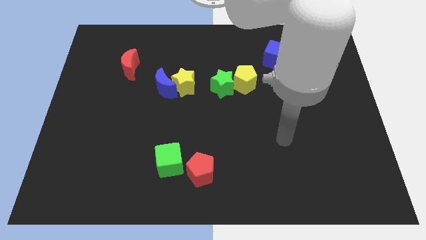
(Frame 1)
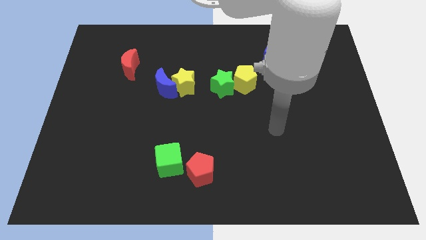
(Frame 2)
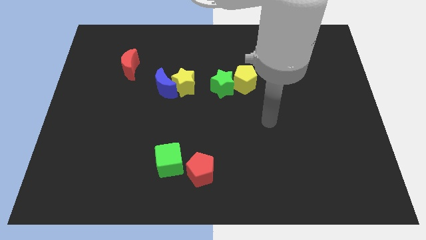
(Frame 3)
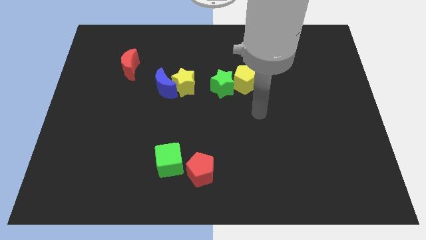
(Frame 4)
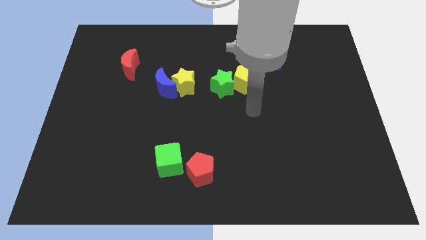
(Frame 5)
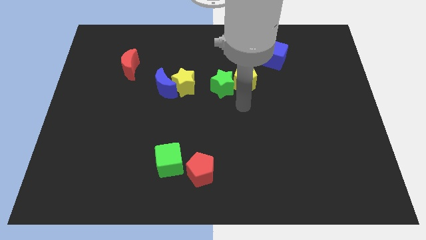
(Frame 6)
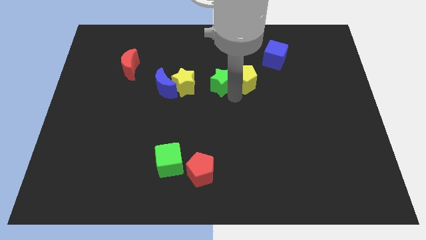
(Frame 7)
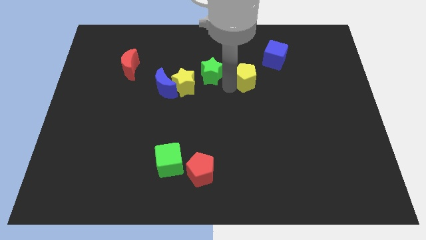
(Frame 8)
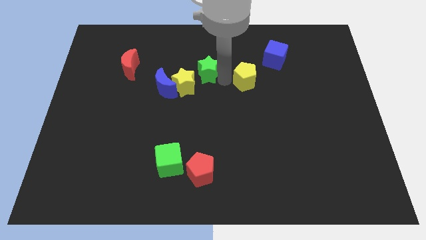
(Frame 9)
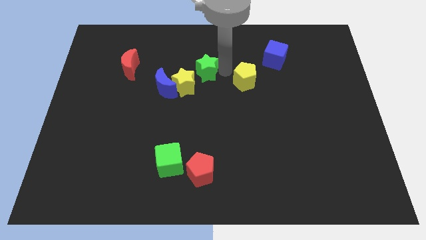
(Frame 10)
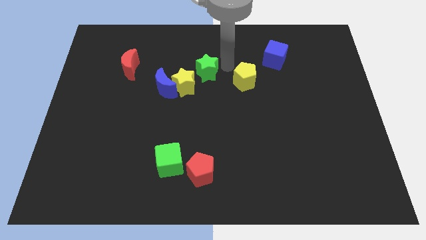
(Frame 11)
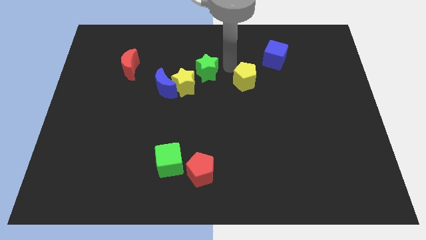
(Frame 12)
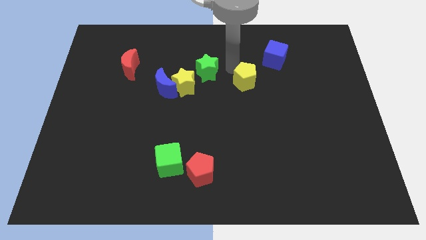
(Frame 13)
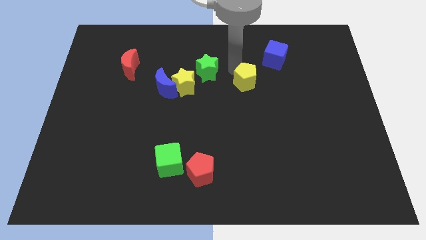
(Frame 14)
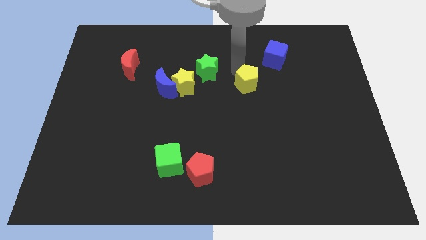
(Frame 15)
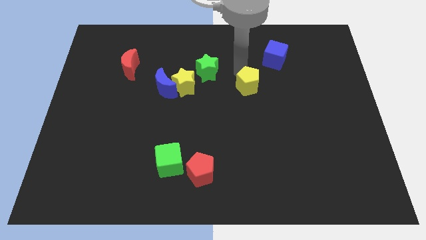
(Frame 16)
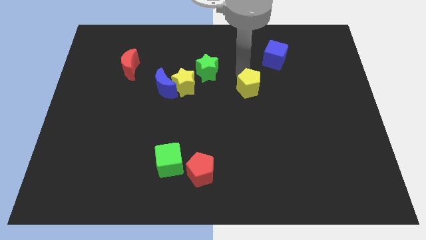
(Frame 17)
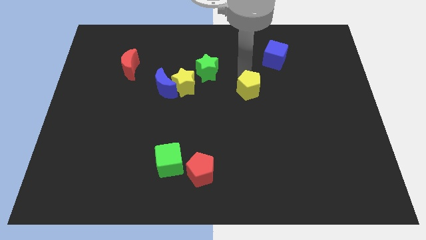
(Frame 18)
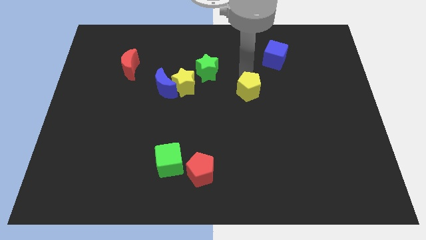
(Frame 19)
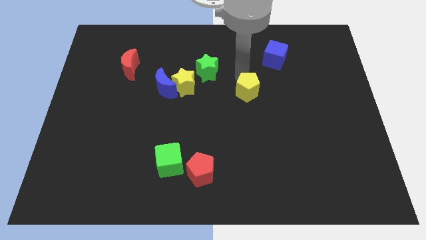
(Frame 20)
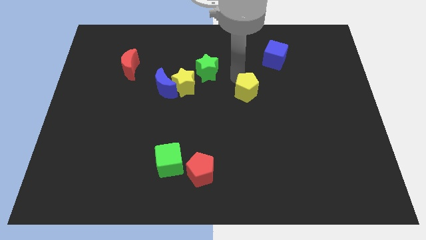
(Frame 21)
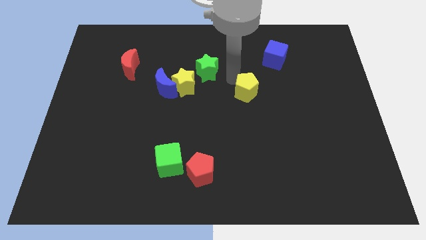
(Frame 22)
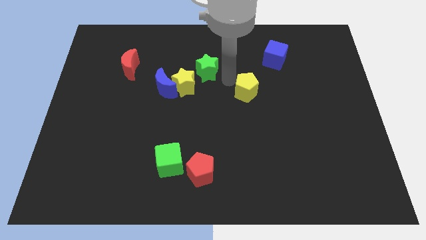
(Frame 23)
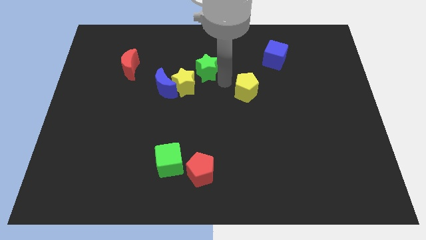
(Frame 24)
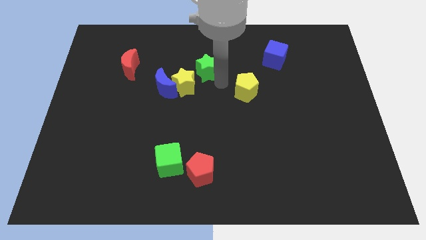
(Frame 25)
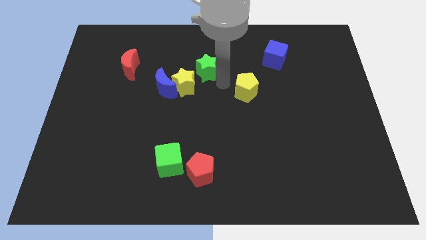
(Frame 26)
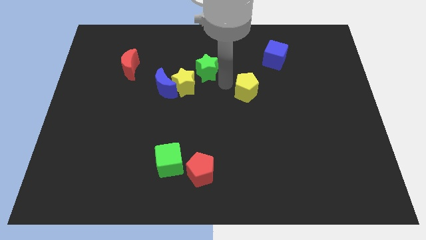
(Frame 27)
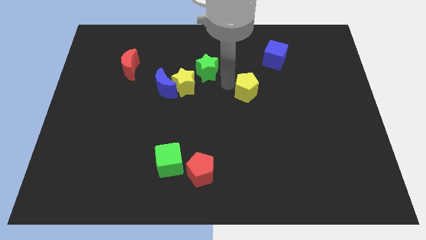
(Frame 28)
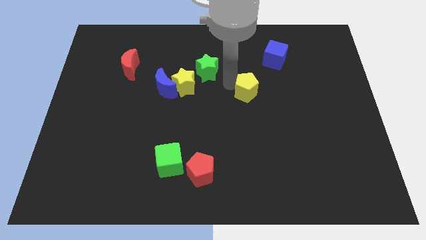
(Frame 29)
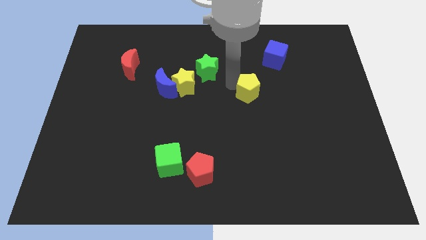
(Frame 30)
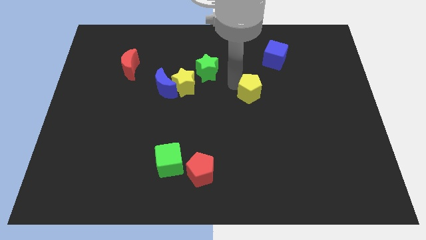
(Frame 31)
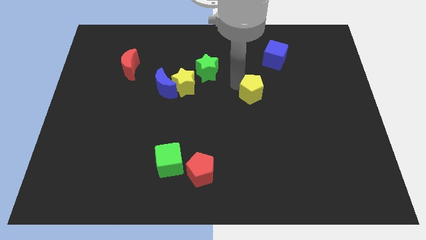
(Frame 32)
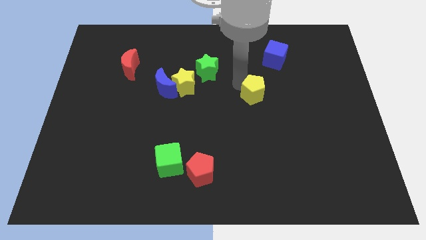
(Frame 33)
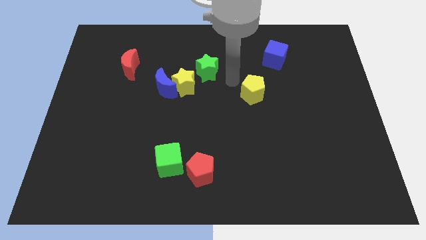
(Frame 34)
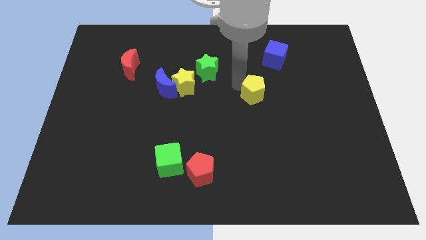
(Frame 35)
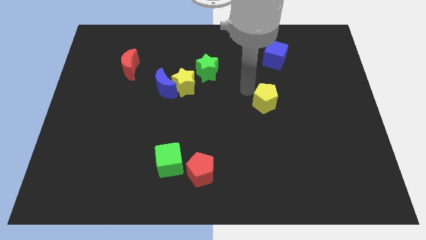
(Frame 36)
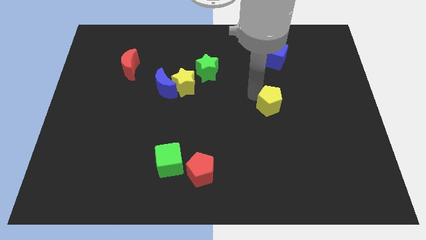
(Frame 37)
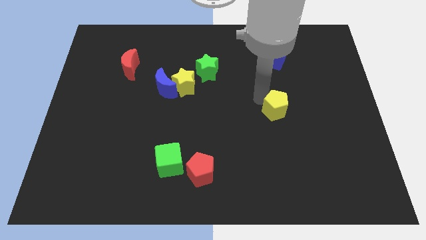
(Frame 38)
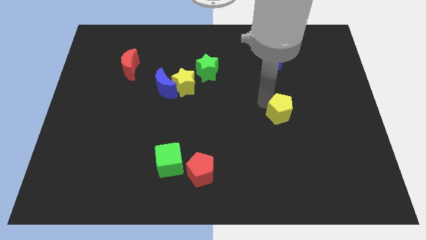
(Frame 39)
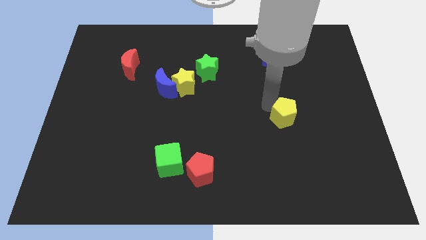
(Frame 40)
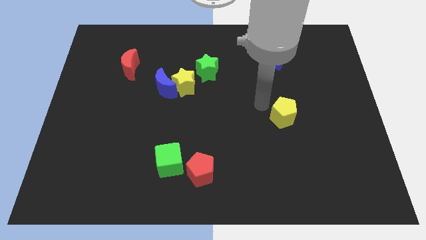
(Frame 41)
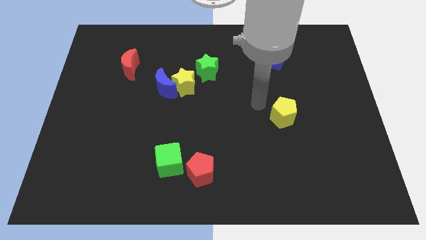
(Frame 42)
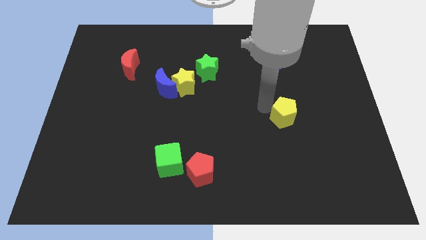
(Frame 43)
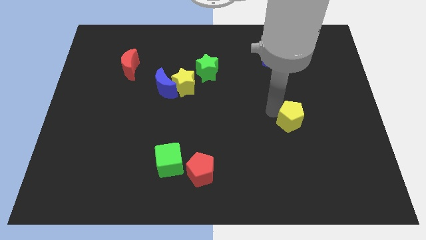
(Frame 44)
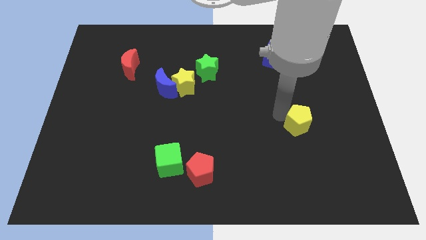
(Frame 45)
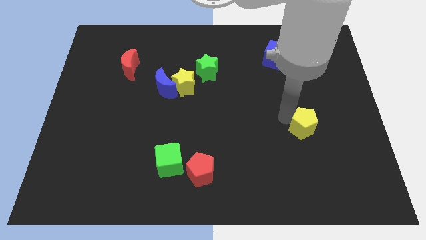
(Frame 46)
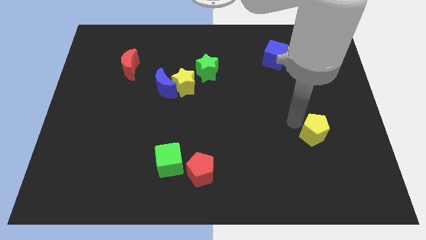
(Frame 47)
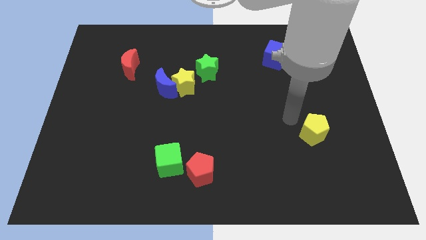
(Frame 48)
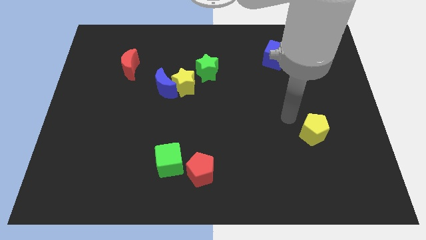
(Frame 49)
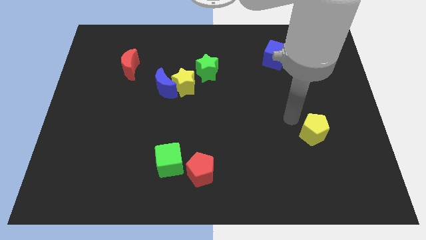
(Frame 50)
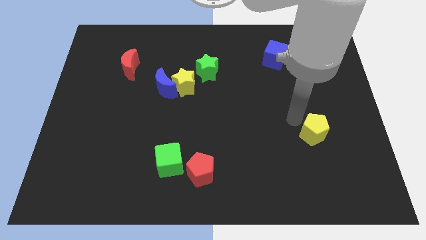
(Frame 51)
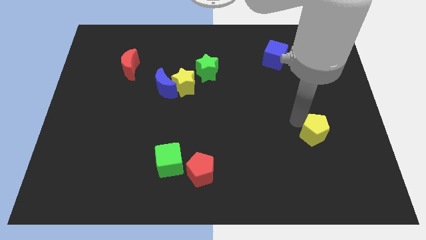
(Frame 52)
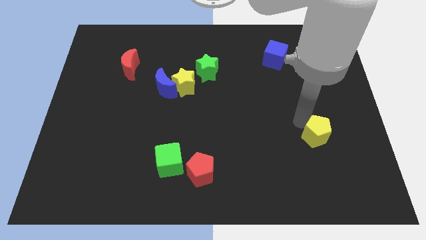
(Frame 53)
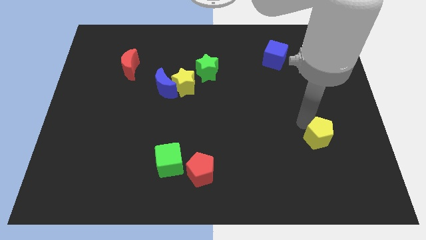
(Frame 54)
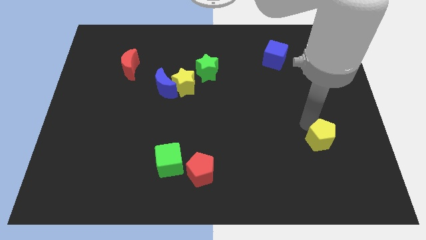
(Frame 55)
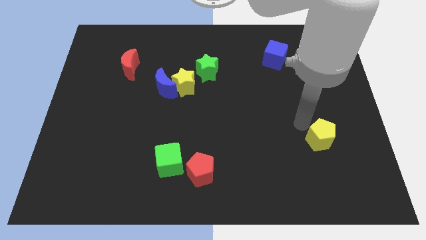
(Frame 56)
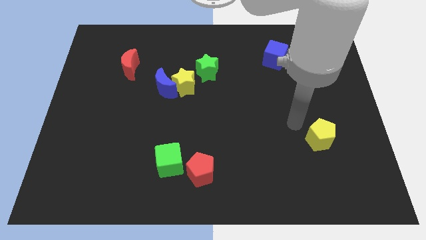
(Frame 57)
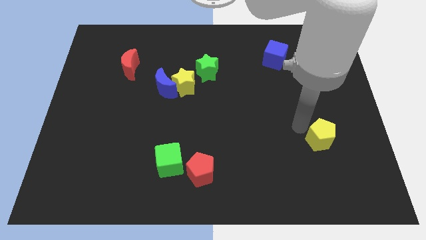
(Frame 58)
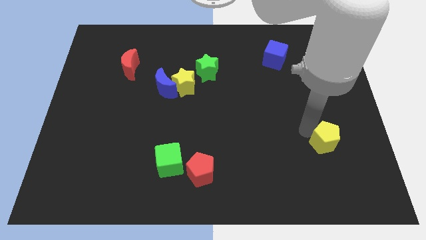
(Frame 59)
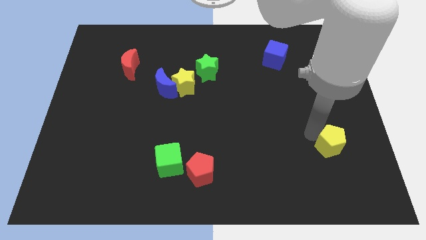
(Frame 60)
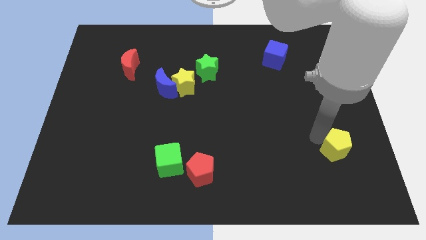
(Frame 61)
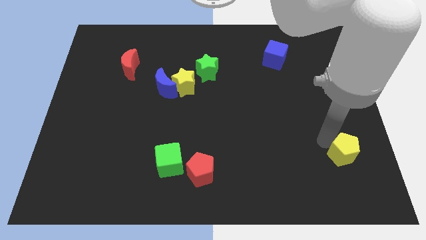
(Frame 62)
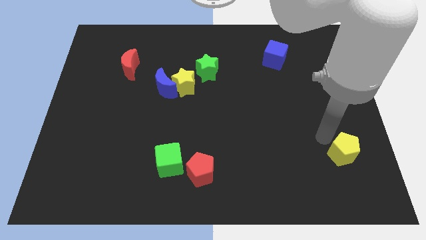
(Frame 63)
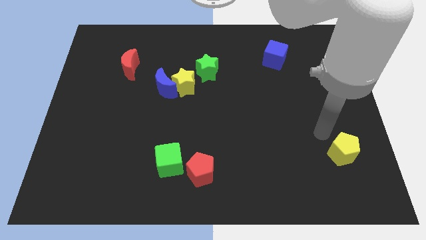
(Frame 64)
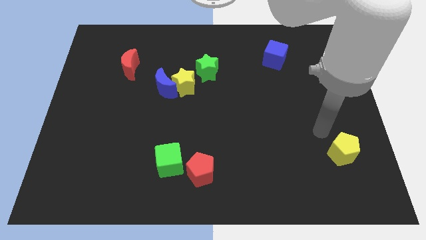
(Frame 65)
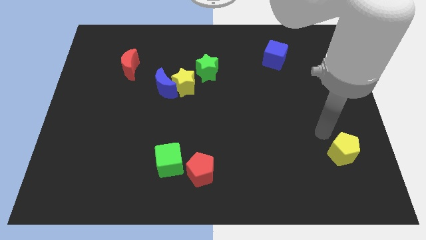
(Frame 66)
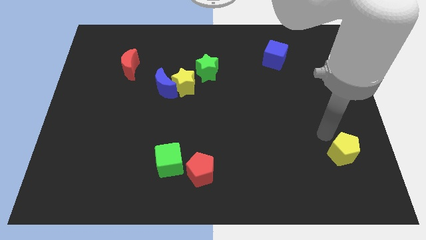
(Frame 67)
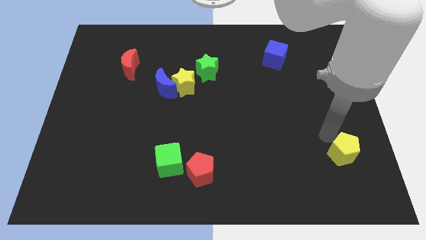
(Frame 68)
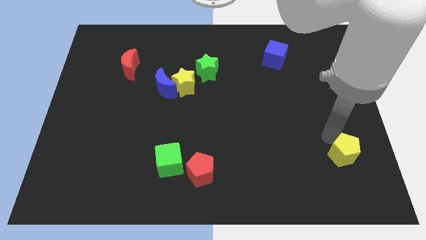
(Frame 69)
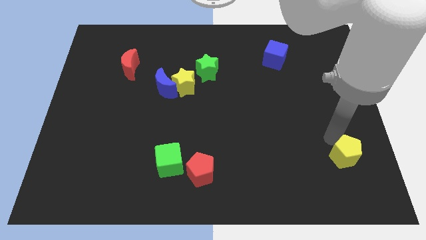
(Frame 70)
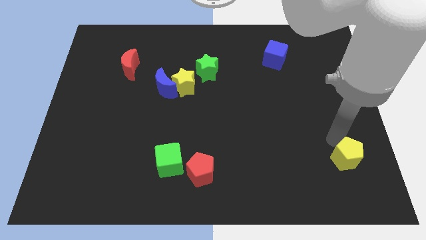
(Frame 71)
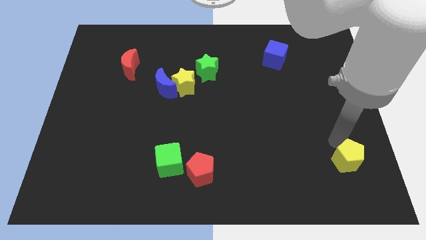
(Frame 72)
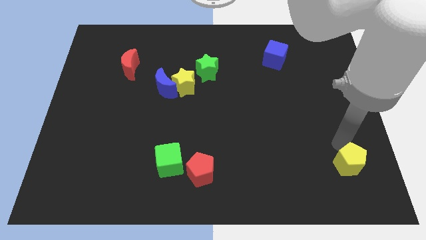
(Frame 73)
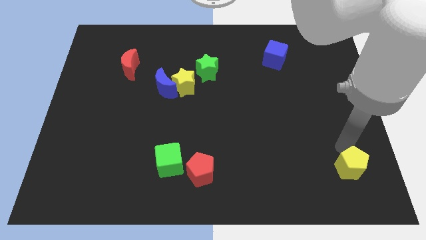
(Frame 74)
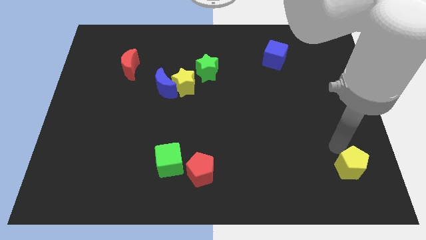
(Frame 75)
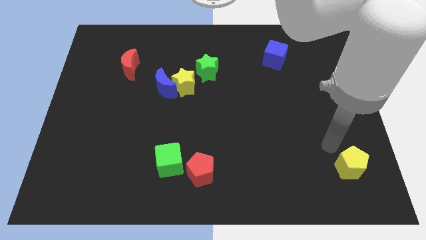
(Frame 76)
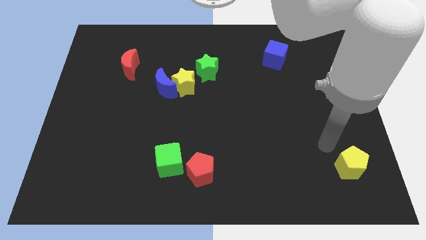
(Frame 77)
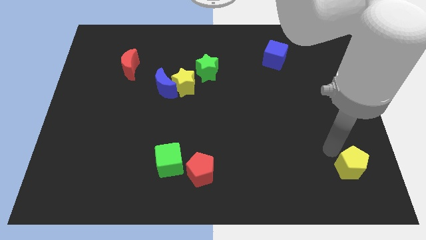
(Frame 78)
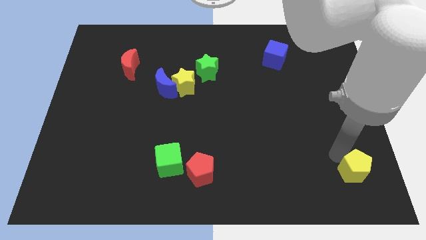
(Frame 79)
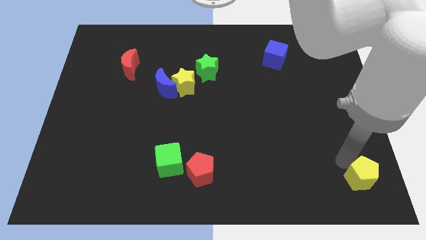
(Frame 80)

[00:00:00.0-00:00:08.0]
slide the yellow pentagon to the bottom right of the board
